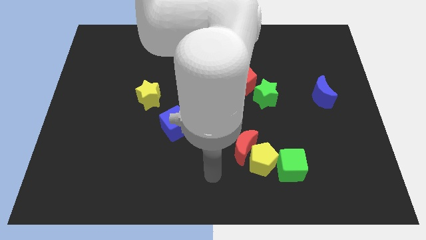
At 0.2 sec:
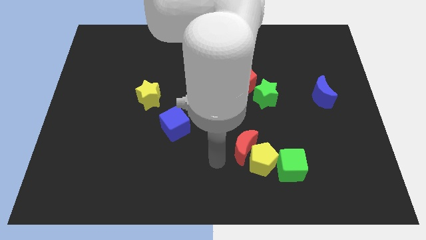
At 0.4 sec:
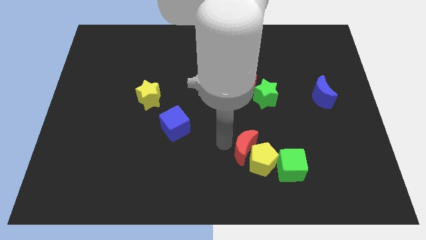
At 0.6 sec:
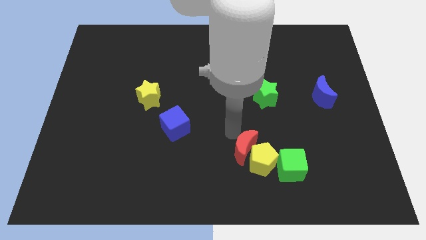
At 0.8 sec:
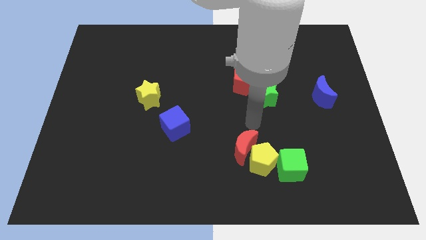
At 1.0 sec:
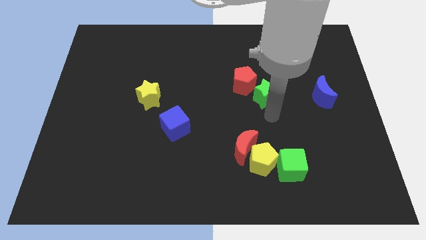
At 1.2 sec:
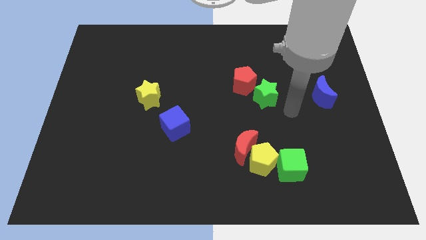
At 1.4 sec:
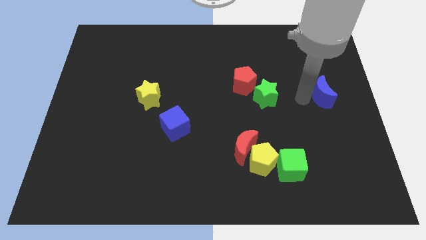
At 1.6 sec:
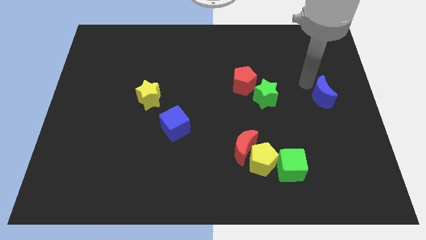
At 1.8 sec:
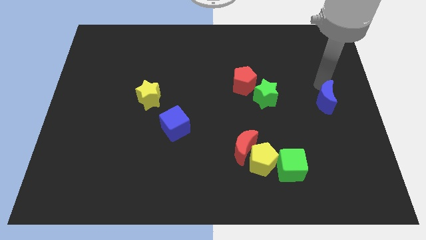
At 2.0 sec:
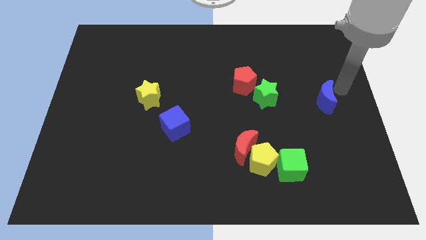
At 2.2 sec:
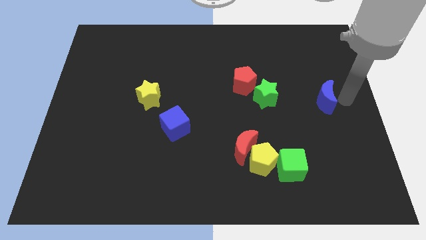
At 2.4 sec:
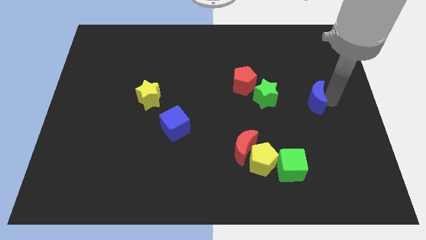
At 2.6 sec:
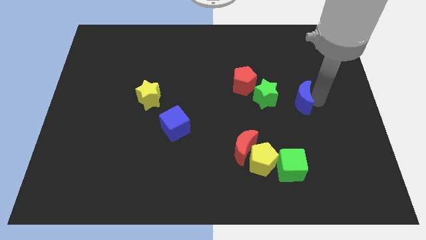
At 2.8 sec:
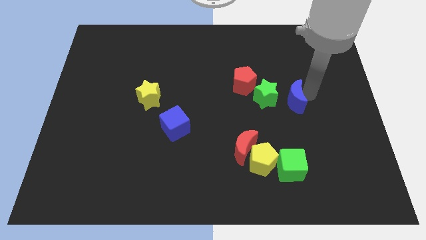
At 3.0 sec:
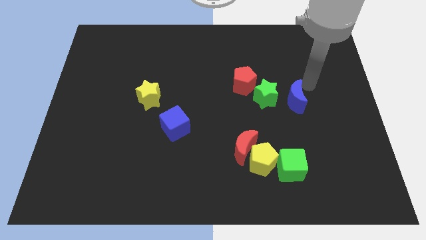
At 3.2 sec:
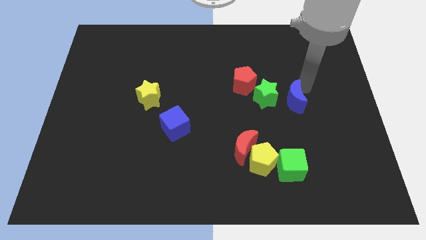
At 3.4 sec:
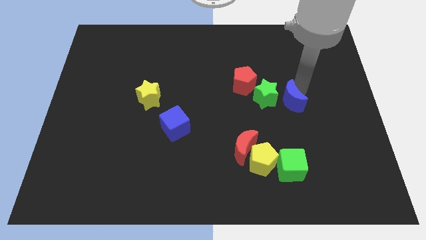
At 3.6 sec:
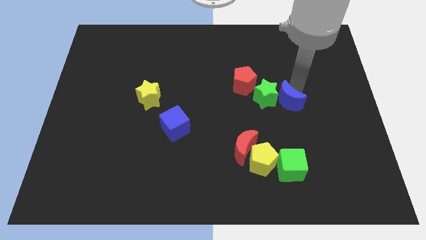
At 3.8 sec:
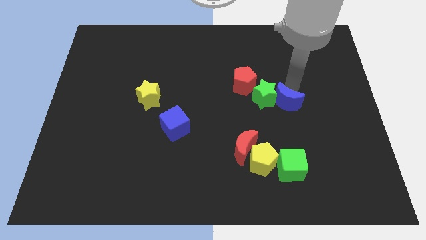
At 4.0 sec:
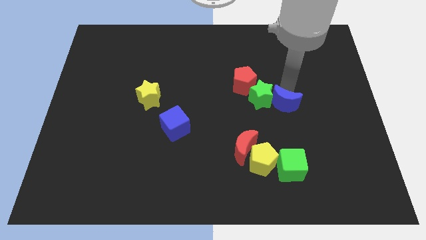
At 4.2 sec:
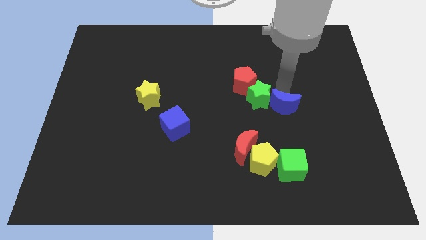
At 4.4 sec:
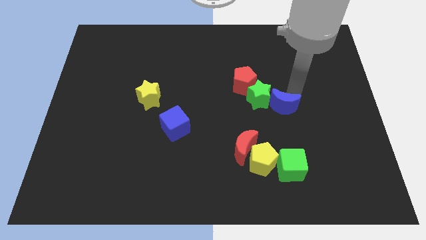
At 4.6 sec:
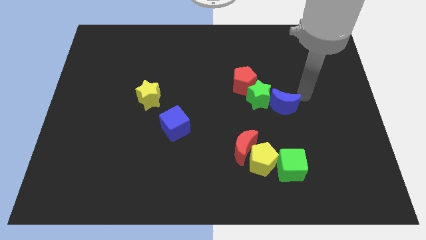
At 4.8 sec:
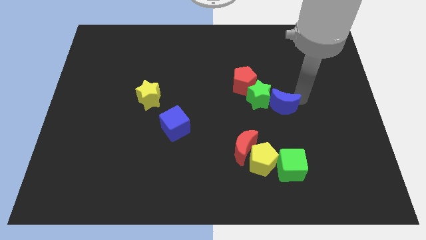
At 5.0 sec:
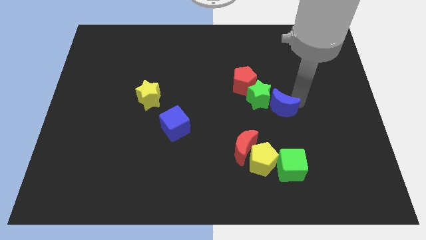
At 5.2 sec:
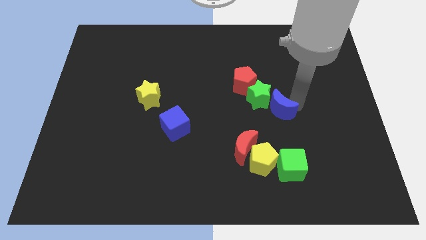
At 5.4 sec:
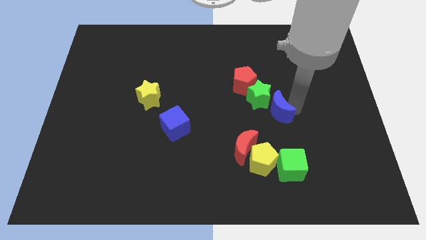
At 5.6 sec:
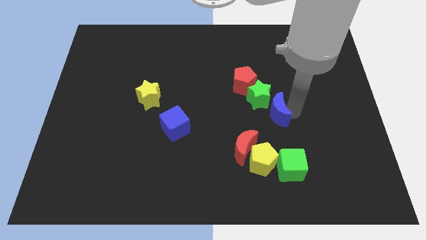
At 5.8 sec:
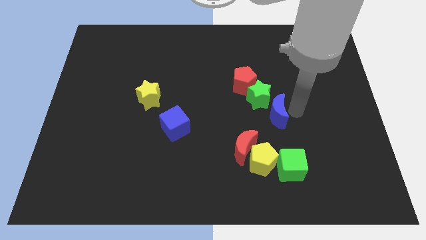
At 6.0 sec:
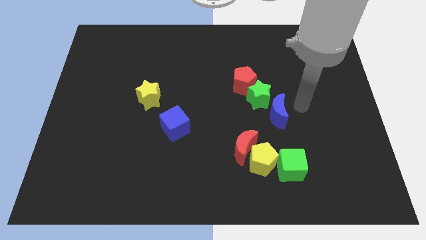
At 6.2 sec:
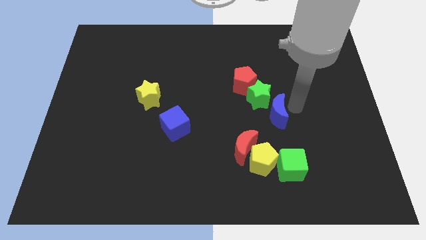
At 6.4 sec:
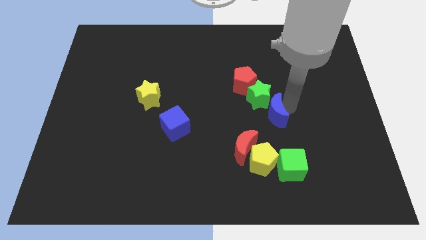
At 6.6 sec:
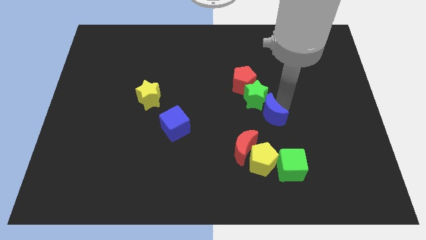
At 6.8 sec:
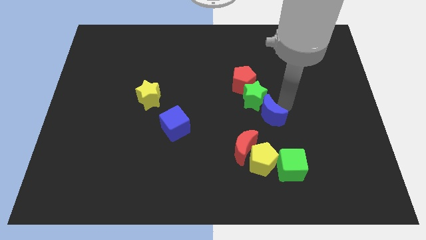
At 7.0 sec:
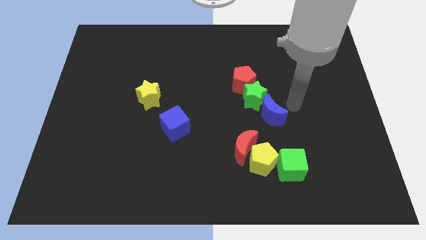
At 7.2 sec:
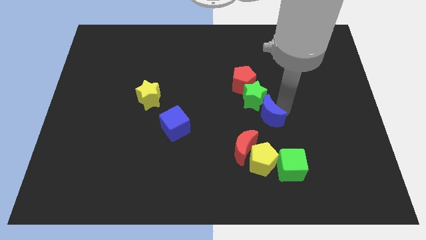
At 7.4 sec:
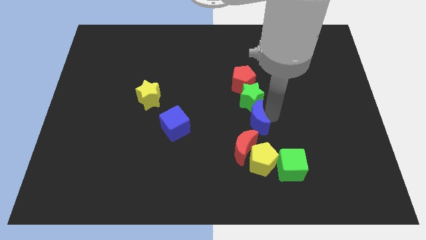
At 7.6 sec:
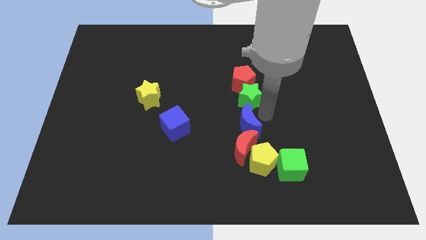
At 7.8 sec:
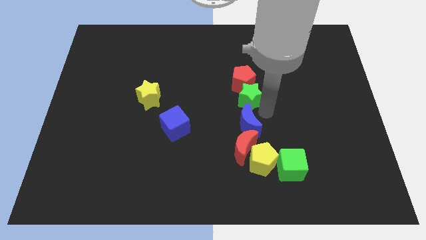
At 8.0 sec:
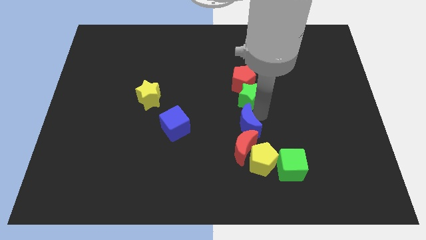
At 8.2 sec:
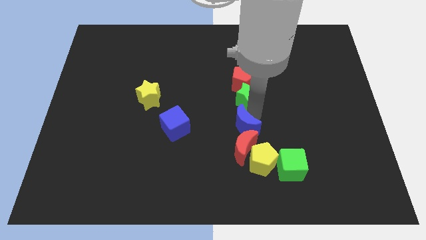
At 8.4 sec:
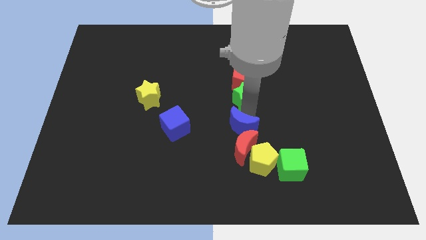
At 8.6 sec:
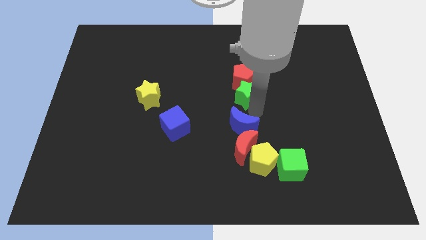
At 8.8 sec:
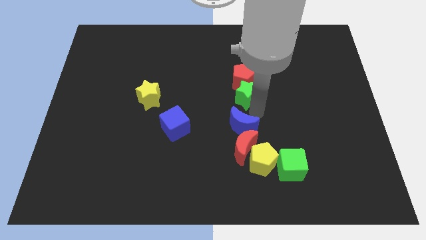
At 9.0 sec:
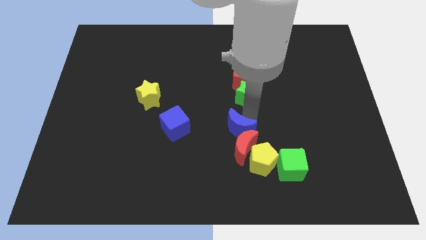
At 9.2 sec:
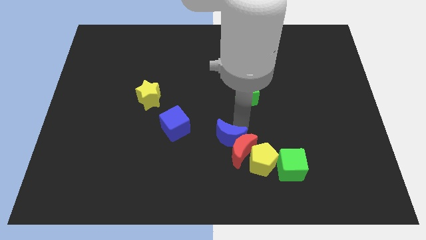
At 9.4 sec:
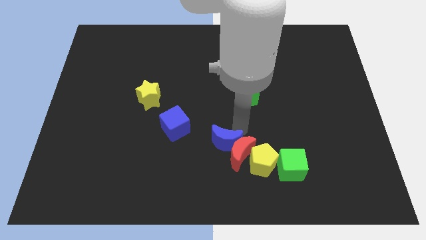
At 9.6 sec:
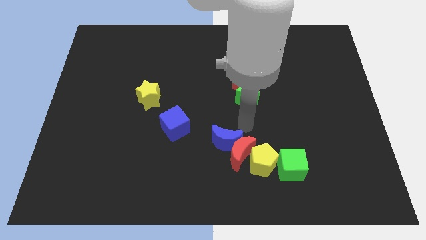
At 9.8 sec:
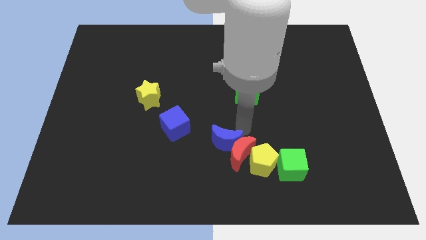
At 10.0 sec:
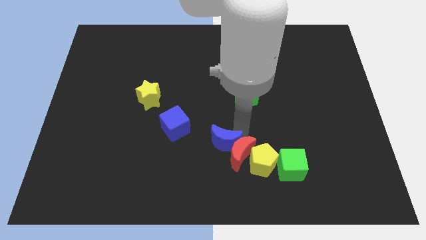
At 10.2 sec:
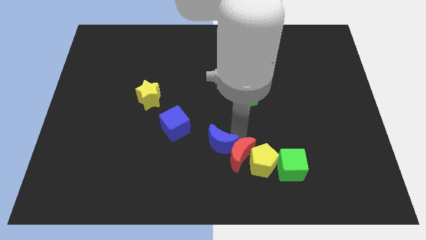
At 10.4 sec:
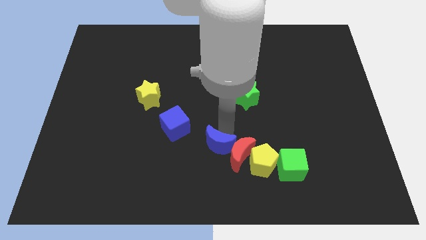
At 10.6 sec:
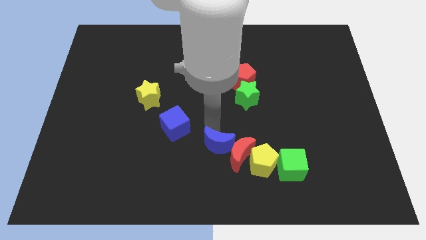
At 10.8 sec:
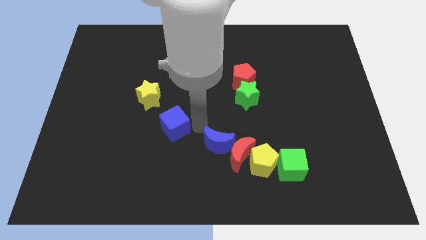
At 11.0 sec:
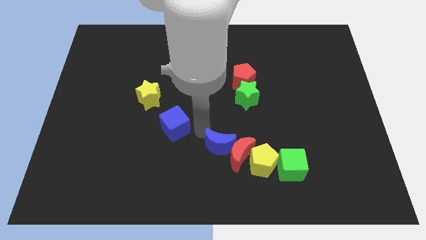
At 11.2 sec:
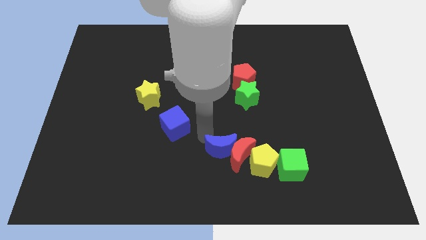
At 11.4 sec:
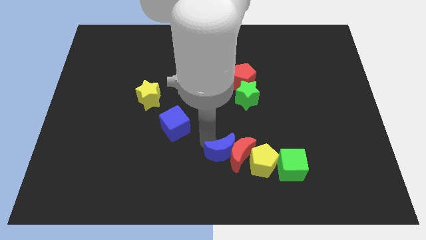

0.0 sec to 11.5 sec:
push the blue moon just left of the green cube
